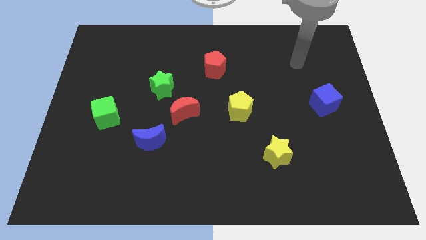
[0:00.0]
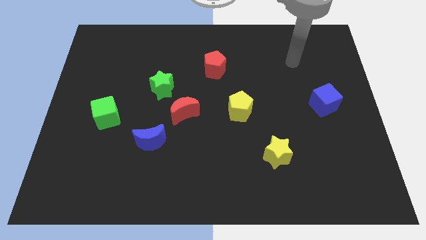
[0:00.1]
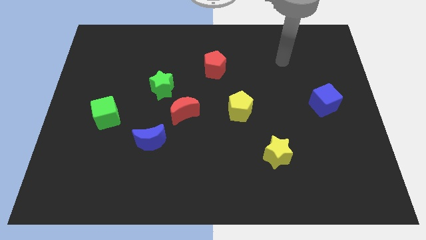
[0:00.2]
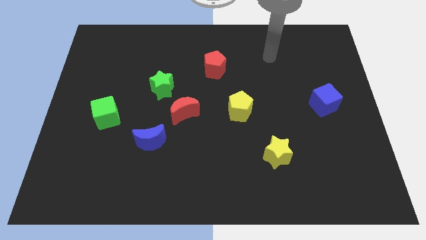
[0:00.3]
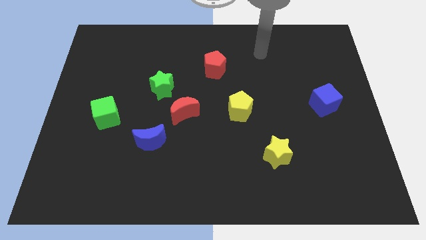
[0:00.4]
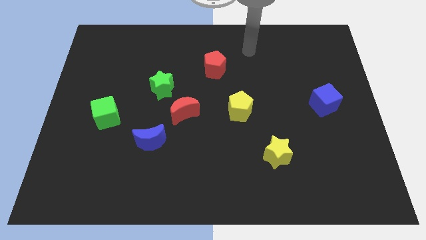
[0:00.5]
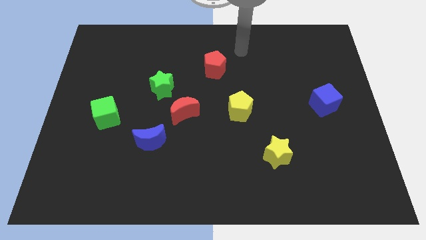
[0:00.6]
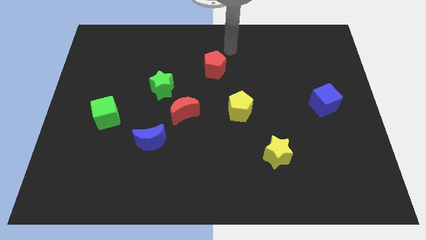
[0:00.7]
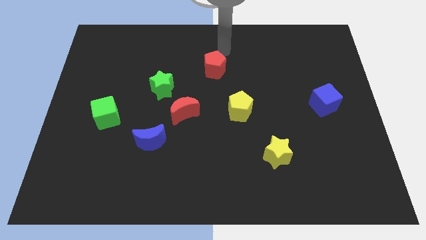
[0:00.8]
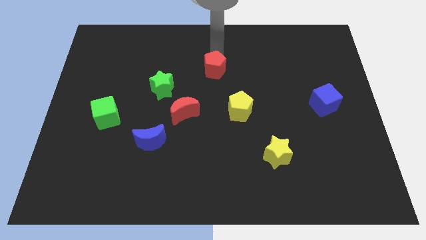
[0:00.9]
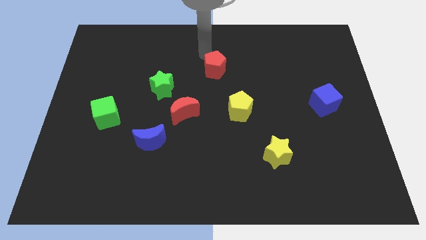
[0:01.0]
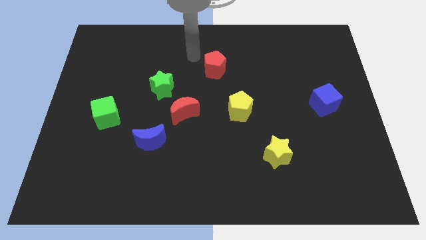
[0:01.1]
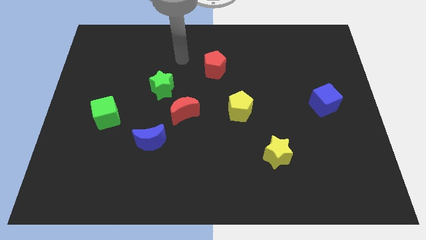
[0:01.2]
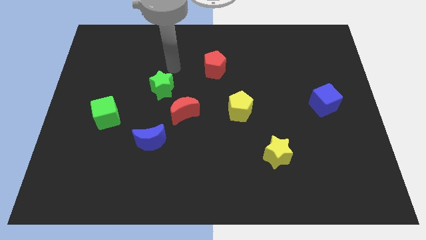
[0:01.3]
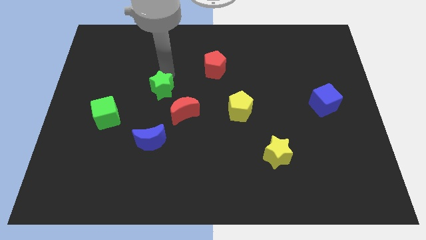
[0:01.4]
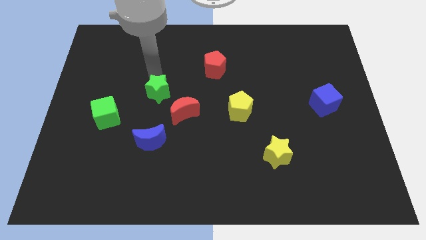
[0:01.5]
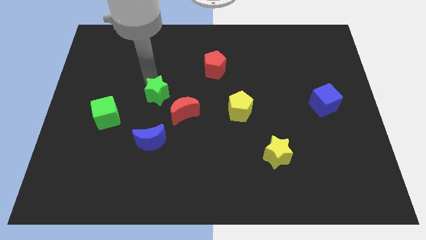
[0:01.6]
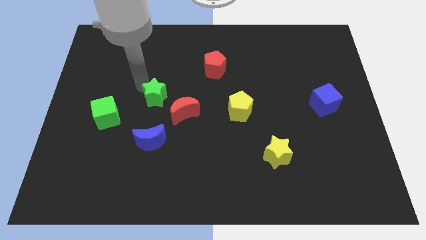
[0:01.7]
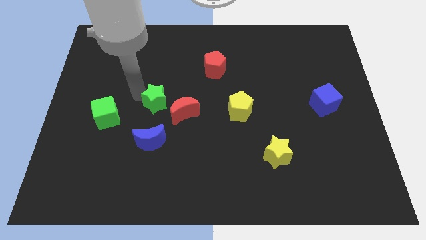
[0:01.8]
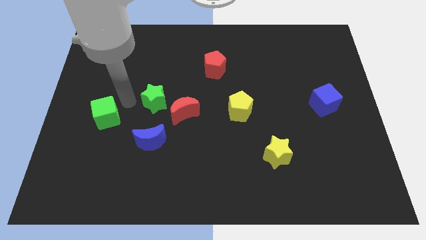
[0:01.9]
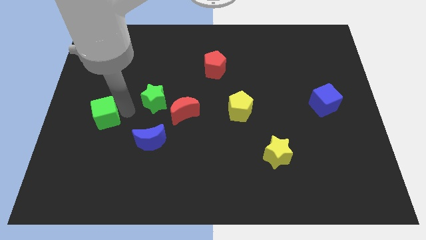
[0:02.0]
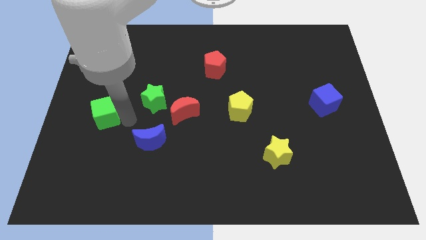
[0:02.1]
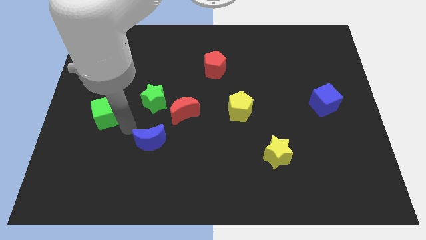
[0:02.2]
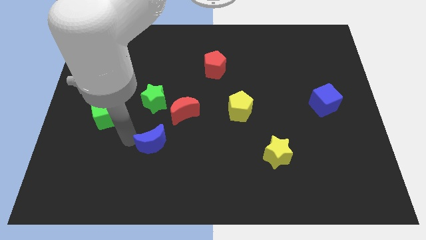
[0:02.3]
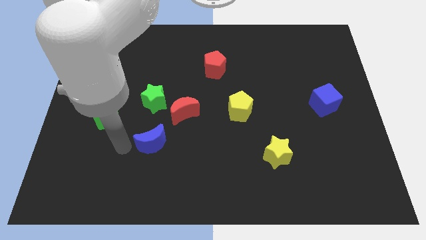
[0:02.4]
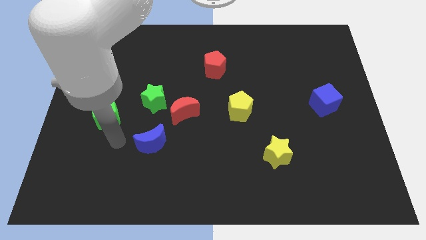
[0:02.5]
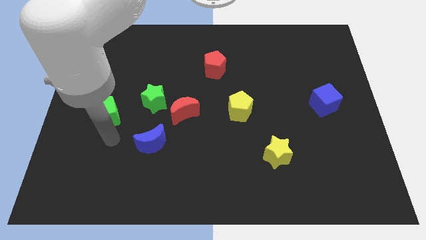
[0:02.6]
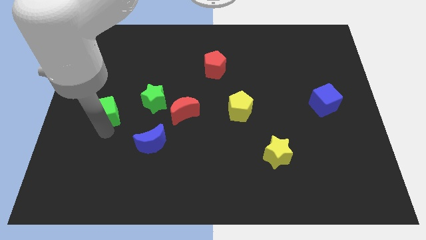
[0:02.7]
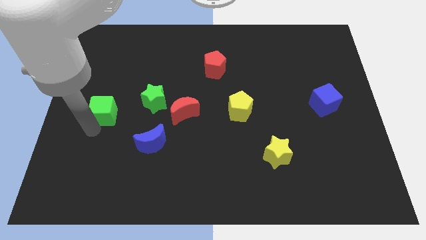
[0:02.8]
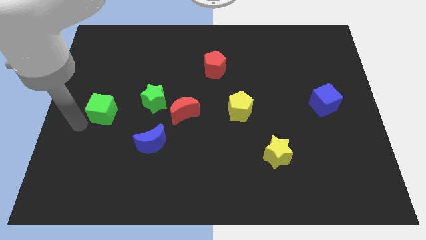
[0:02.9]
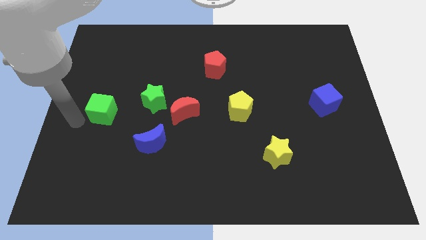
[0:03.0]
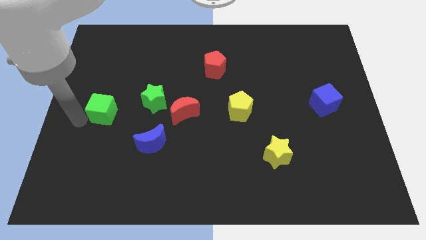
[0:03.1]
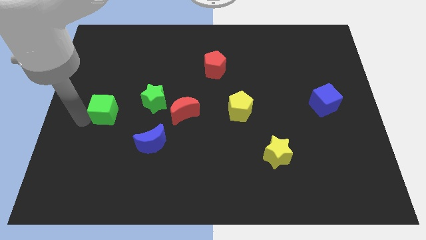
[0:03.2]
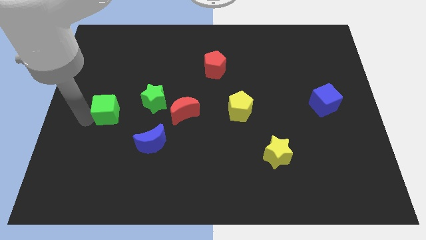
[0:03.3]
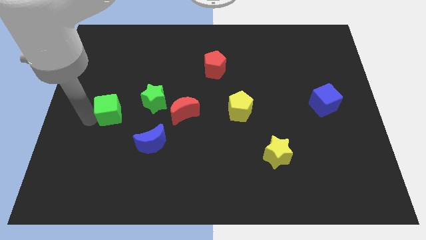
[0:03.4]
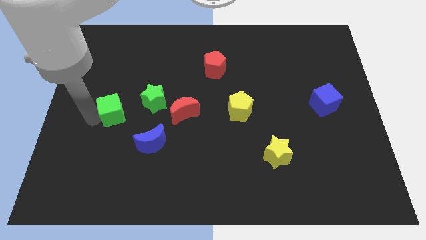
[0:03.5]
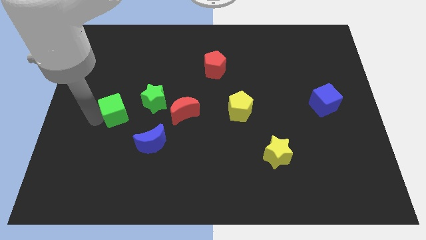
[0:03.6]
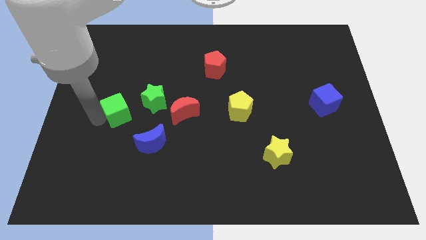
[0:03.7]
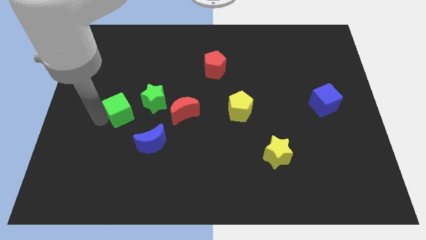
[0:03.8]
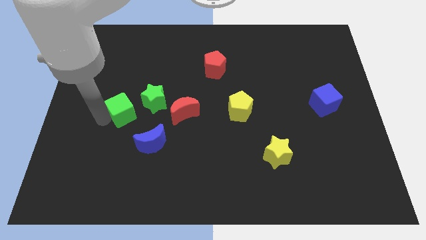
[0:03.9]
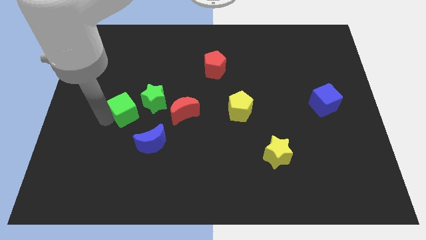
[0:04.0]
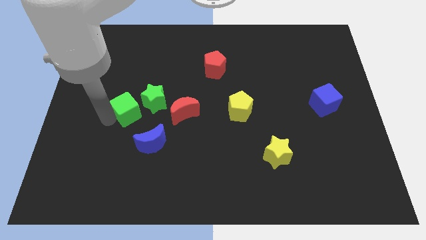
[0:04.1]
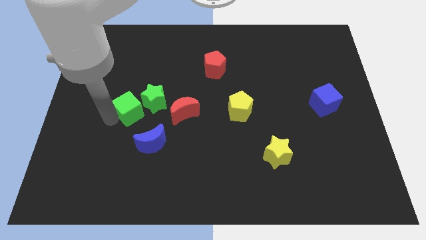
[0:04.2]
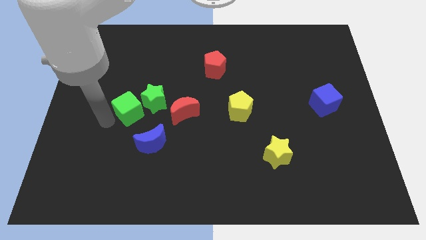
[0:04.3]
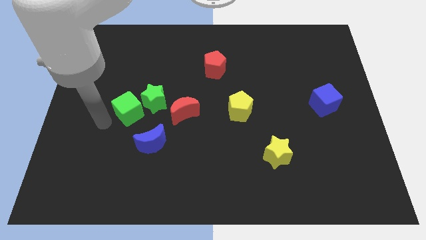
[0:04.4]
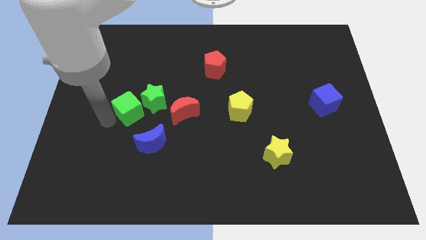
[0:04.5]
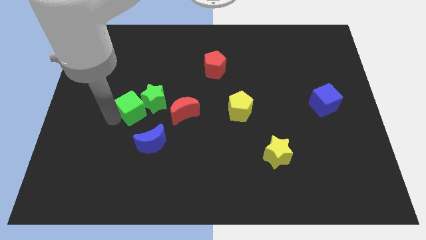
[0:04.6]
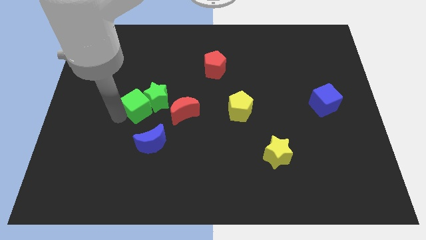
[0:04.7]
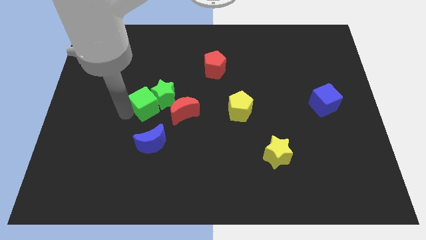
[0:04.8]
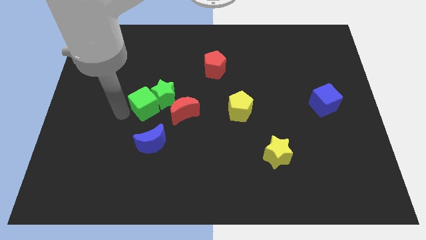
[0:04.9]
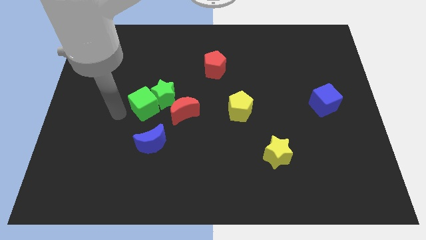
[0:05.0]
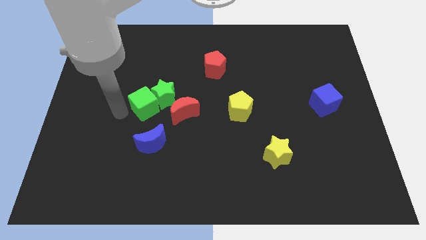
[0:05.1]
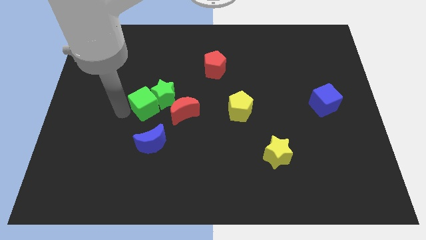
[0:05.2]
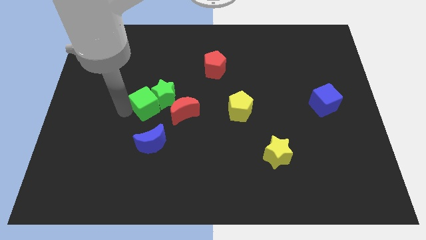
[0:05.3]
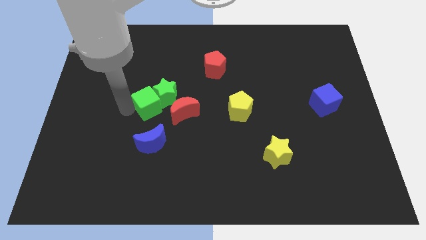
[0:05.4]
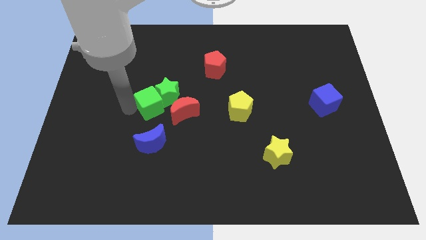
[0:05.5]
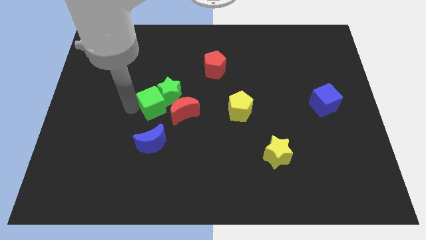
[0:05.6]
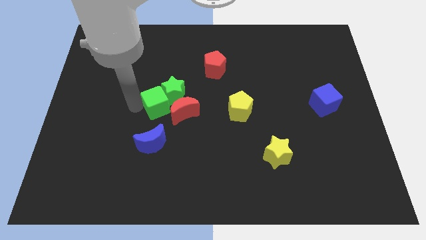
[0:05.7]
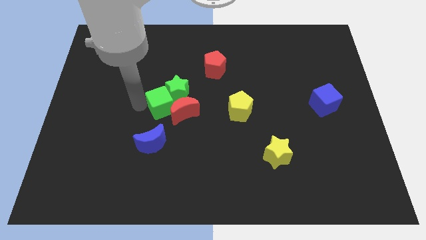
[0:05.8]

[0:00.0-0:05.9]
move the green cube to the middle of the board
